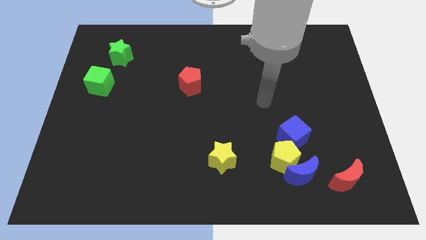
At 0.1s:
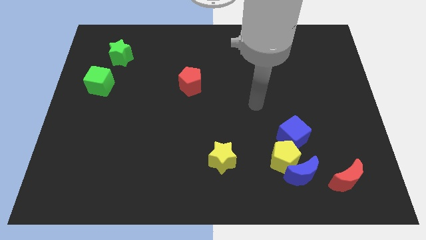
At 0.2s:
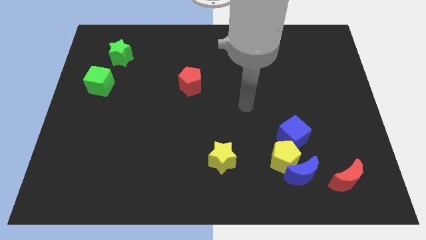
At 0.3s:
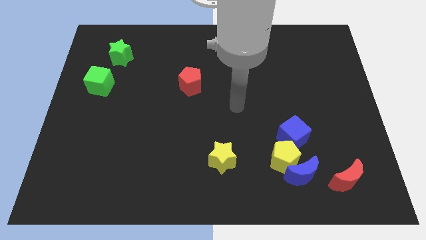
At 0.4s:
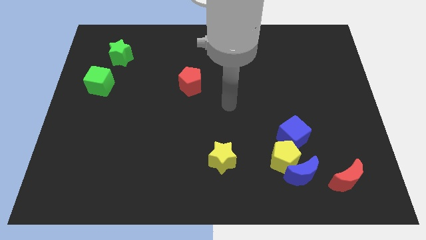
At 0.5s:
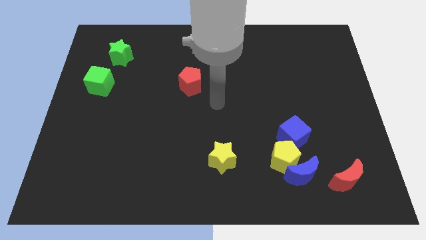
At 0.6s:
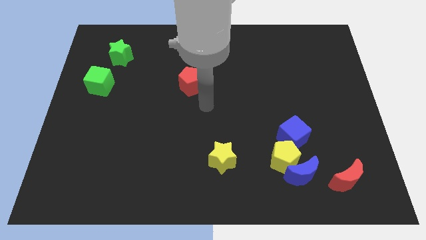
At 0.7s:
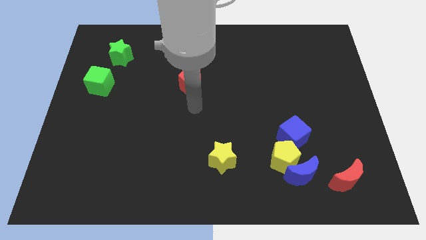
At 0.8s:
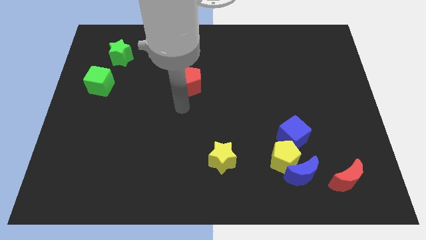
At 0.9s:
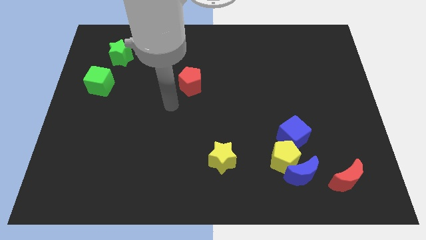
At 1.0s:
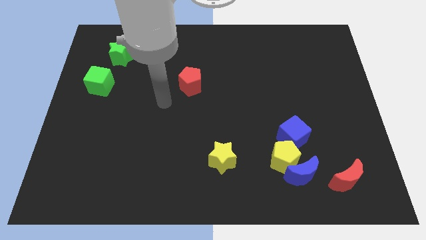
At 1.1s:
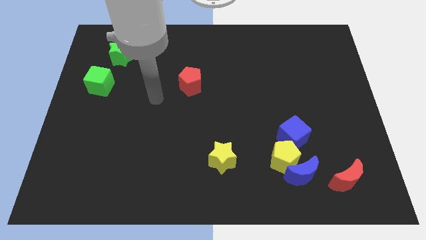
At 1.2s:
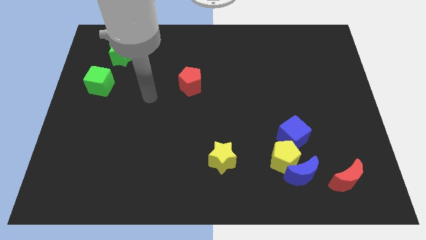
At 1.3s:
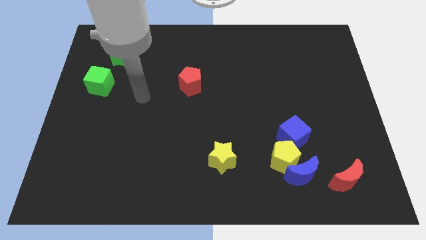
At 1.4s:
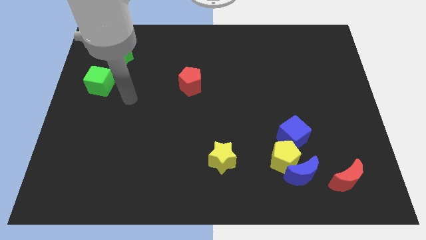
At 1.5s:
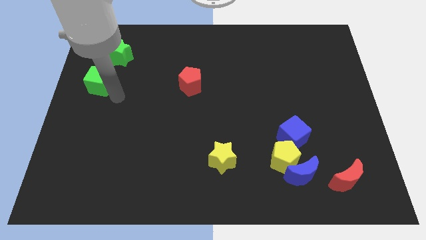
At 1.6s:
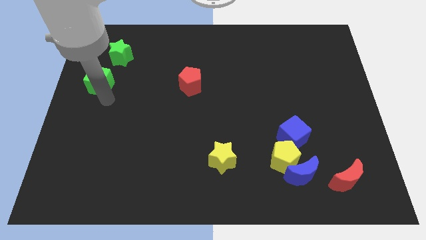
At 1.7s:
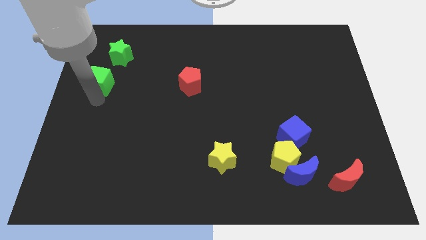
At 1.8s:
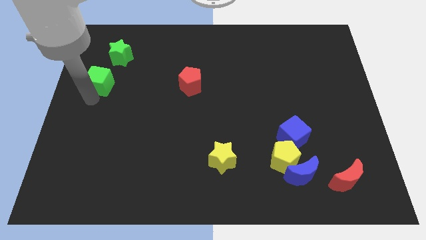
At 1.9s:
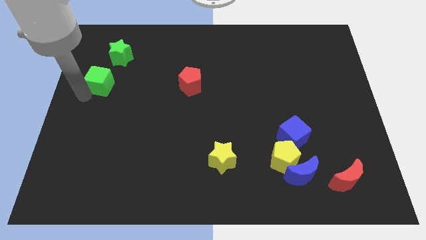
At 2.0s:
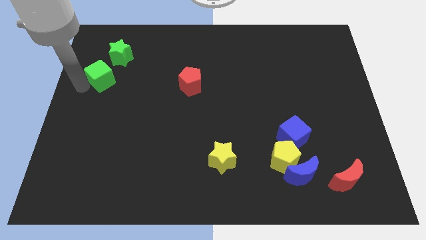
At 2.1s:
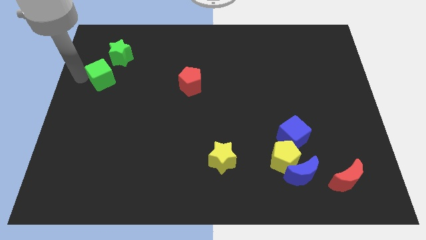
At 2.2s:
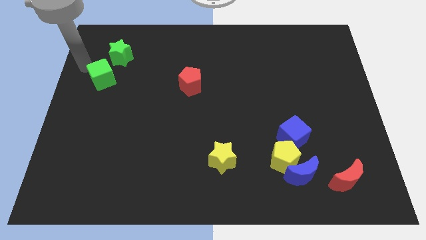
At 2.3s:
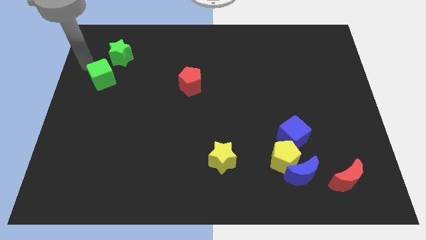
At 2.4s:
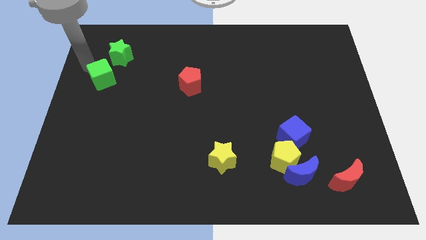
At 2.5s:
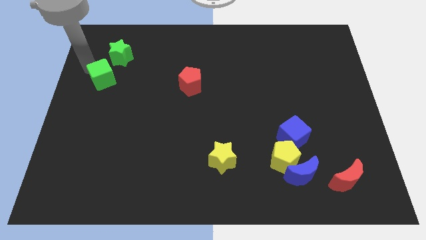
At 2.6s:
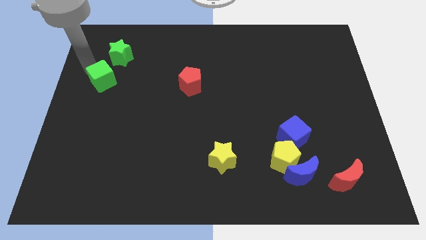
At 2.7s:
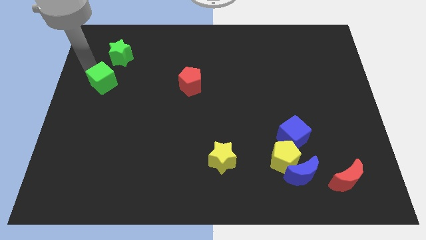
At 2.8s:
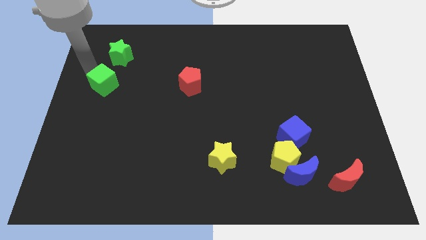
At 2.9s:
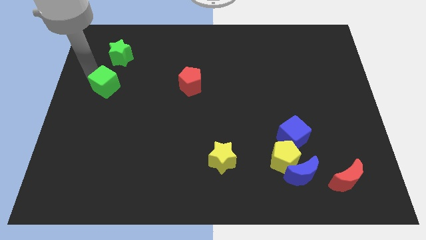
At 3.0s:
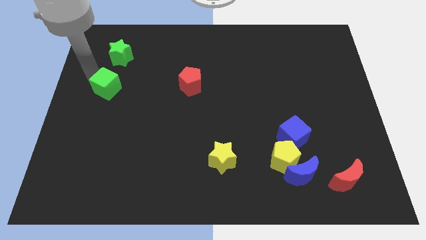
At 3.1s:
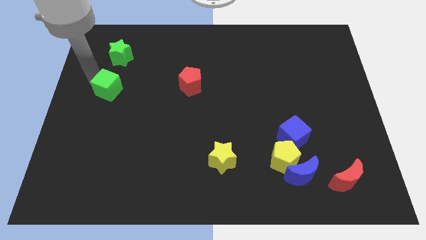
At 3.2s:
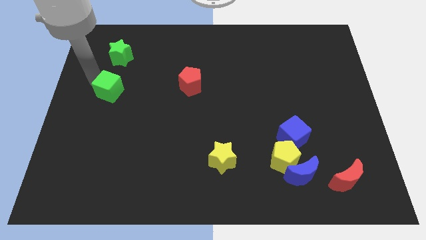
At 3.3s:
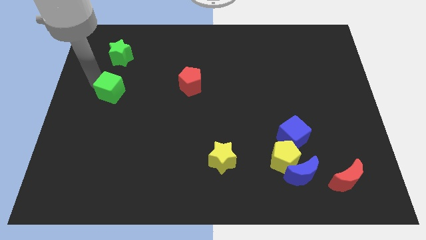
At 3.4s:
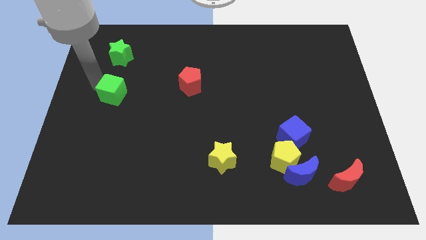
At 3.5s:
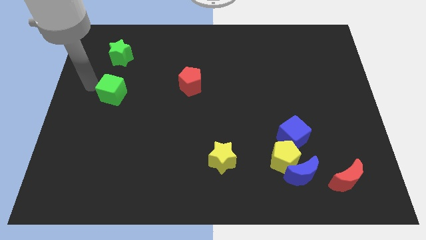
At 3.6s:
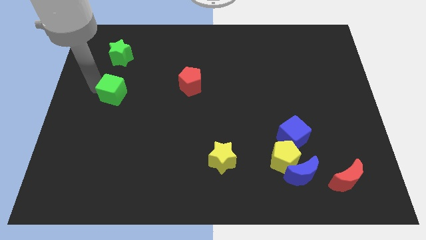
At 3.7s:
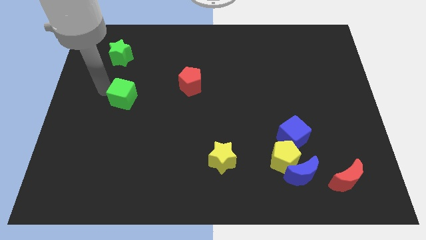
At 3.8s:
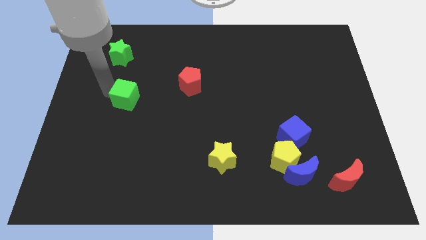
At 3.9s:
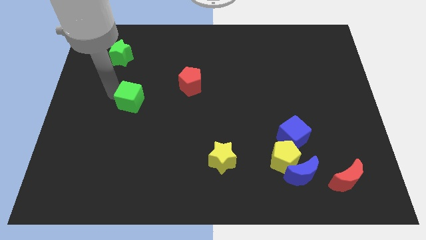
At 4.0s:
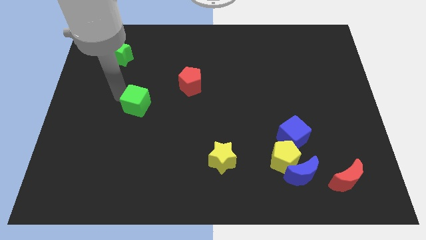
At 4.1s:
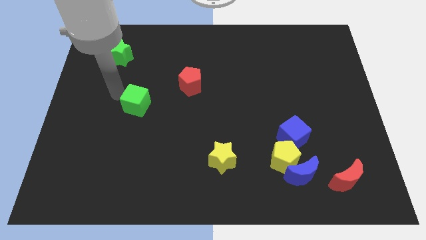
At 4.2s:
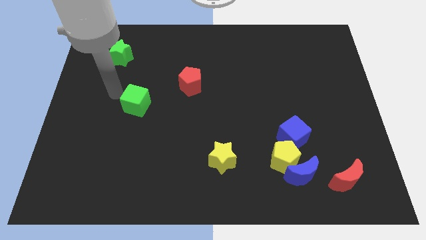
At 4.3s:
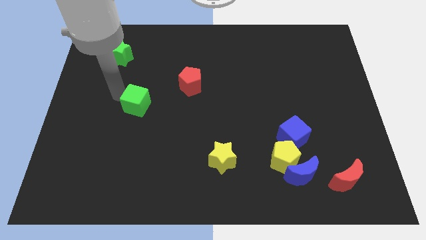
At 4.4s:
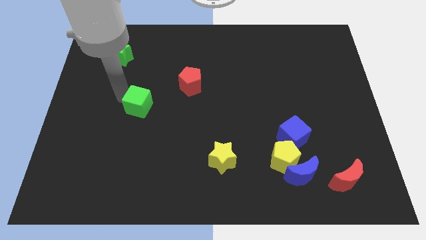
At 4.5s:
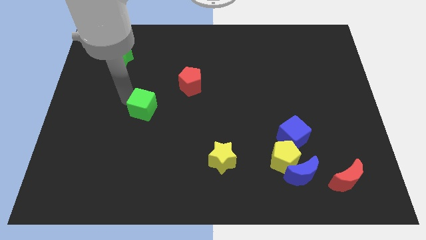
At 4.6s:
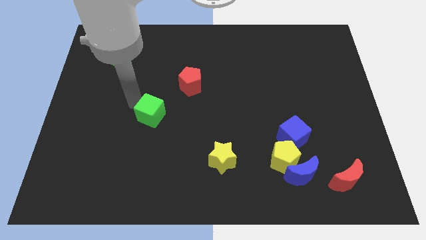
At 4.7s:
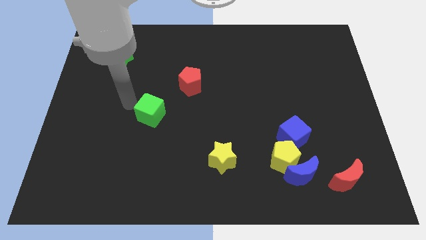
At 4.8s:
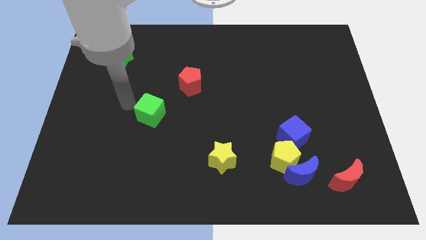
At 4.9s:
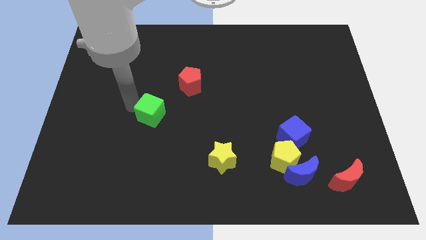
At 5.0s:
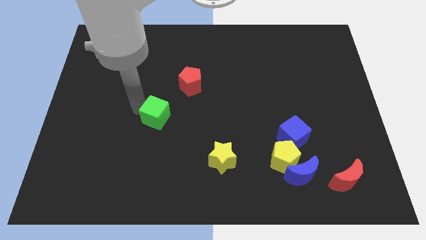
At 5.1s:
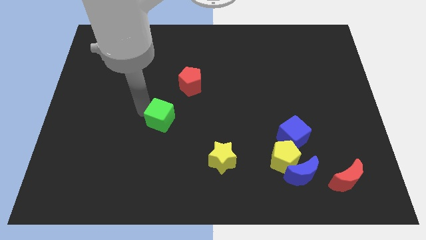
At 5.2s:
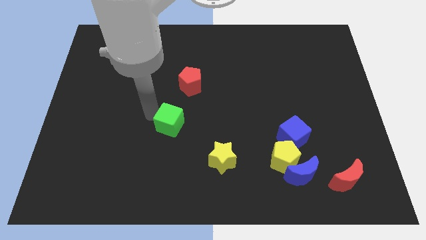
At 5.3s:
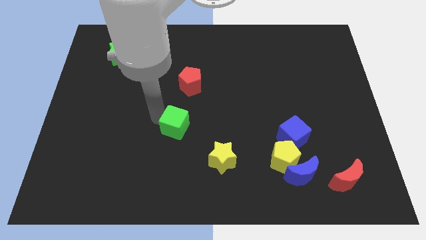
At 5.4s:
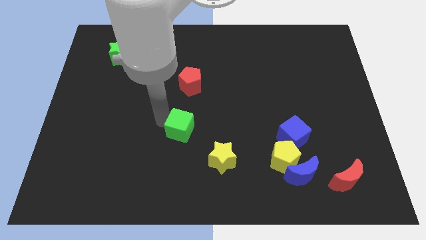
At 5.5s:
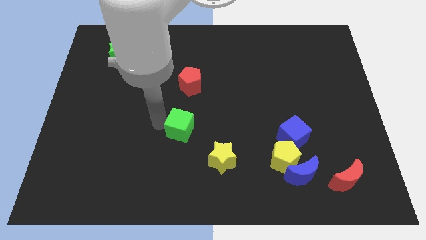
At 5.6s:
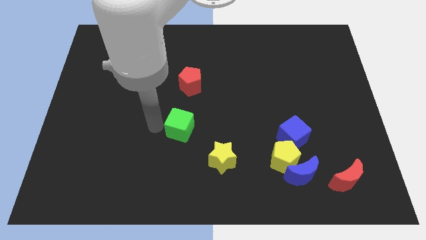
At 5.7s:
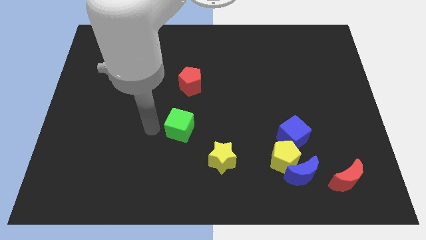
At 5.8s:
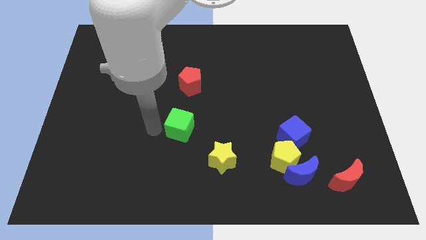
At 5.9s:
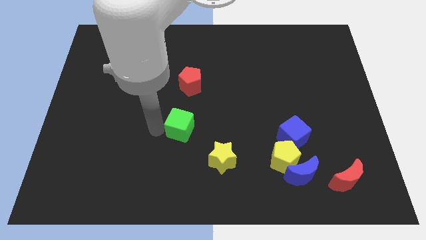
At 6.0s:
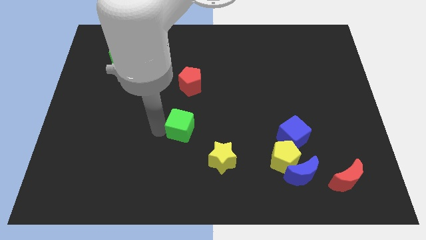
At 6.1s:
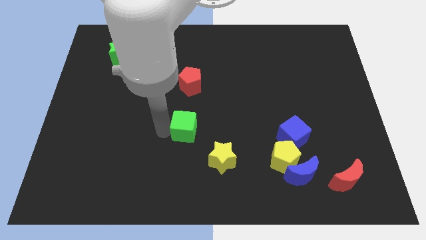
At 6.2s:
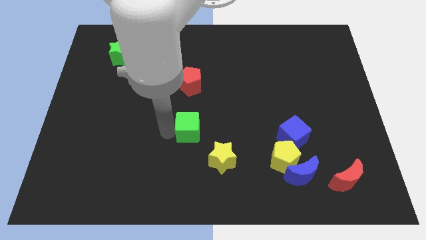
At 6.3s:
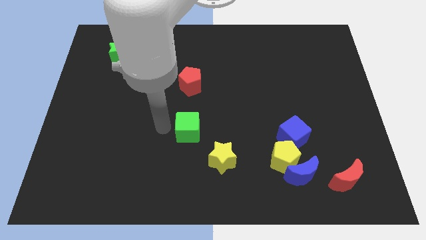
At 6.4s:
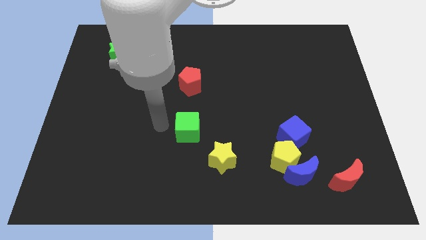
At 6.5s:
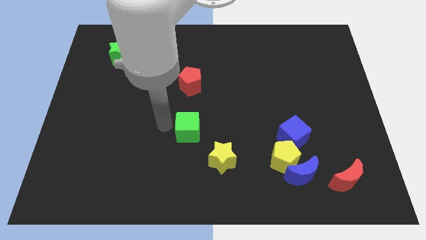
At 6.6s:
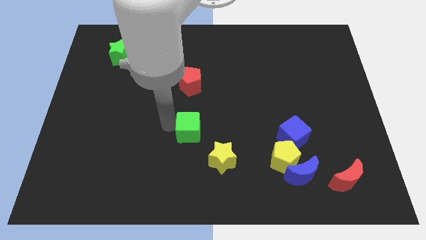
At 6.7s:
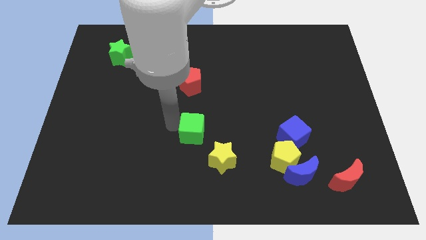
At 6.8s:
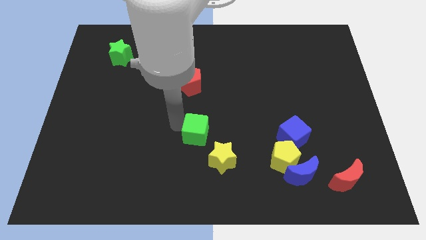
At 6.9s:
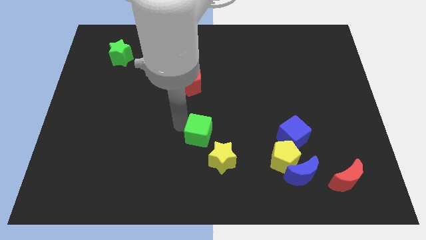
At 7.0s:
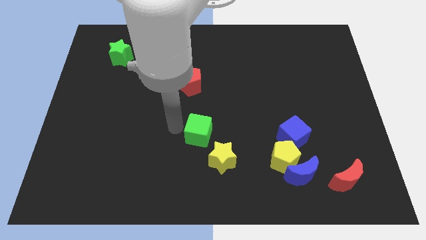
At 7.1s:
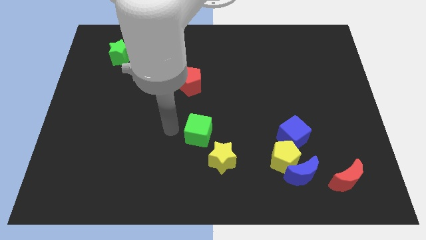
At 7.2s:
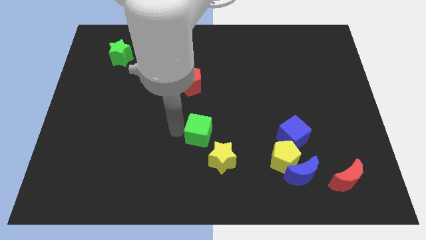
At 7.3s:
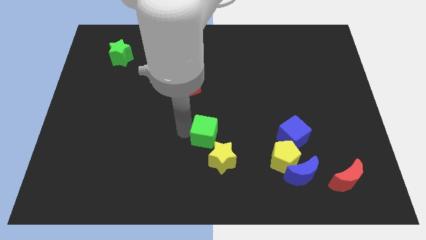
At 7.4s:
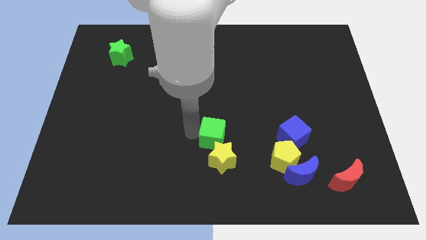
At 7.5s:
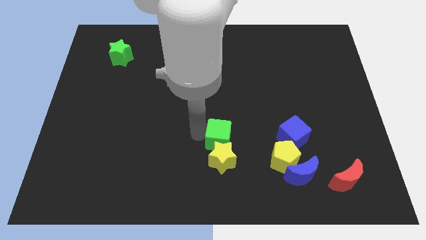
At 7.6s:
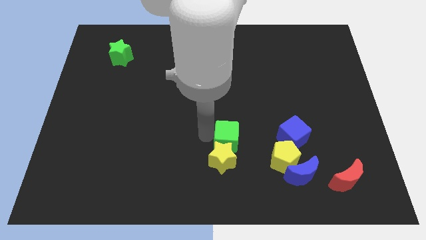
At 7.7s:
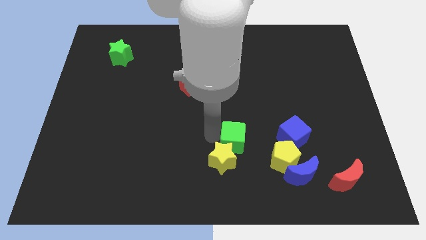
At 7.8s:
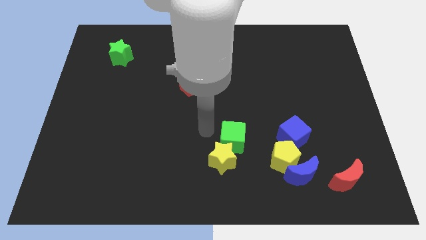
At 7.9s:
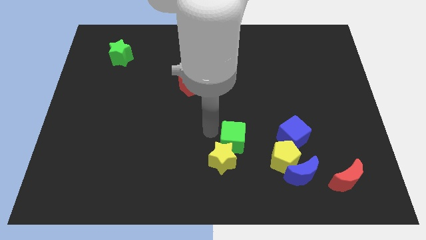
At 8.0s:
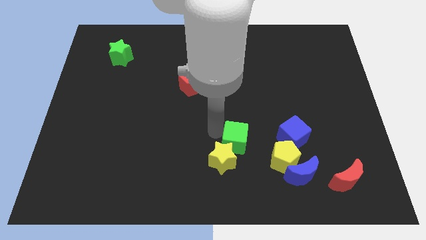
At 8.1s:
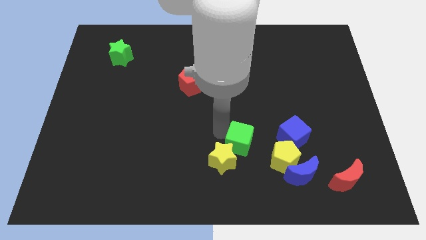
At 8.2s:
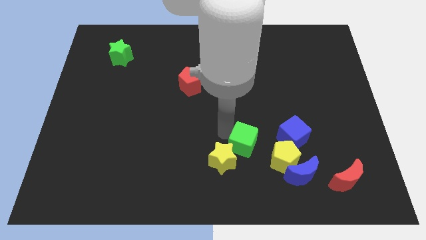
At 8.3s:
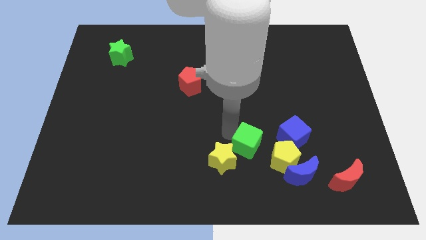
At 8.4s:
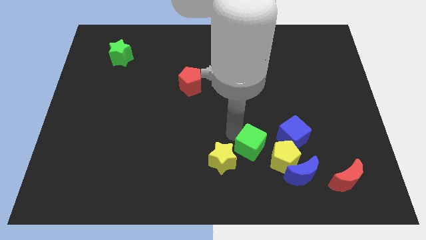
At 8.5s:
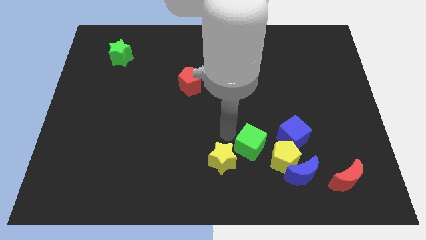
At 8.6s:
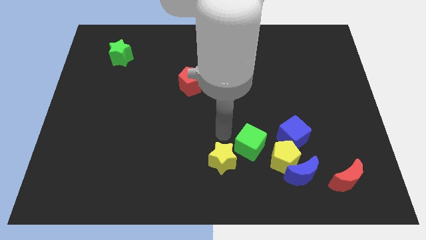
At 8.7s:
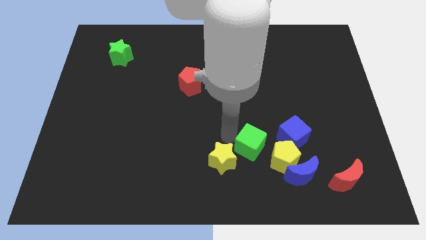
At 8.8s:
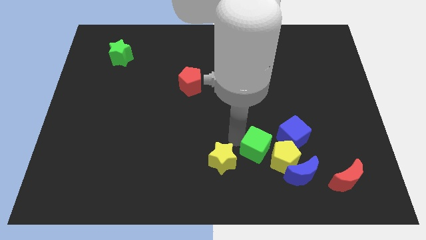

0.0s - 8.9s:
push the green cube towards the yellow pentagon
